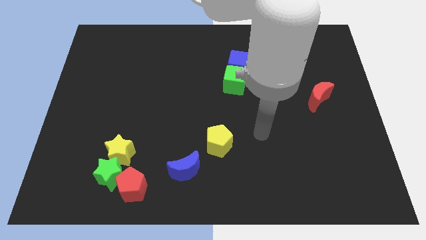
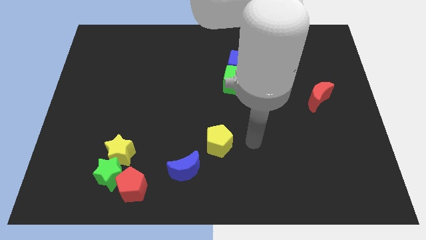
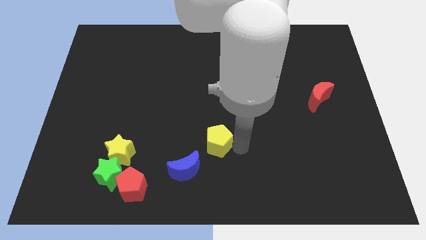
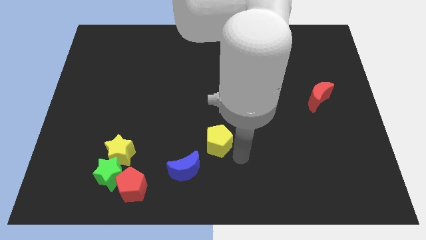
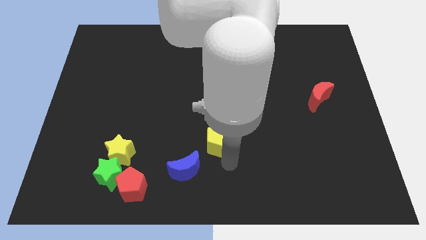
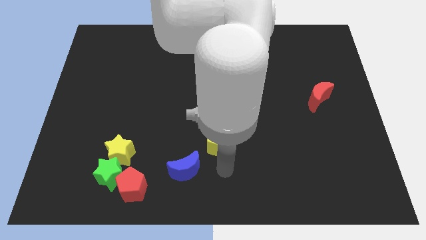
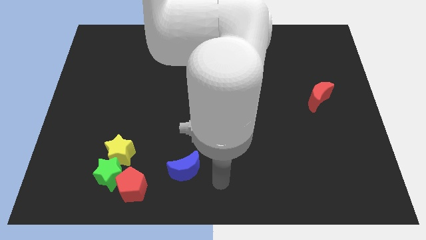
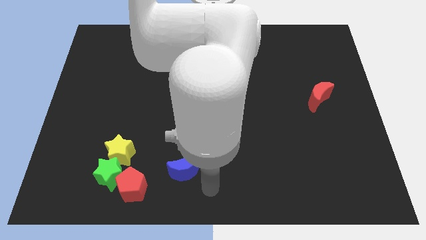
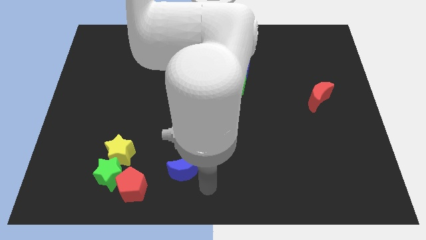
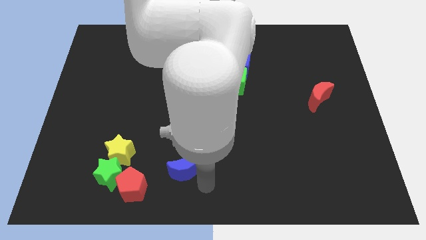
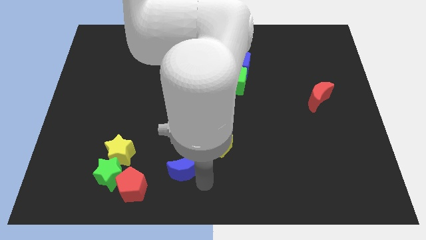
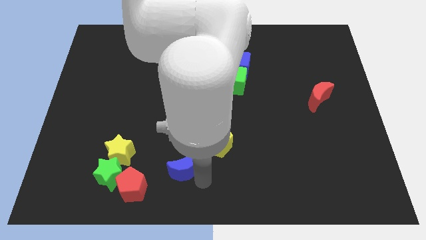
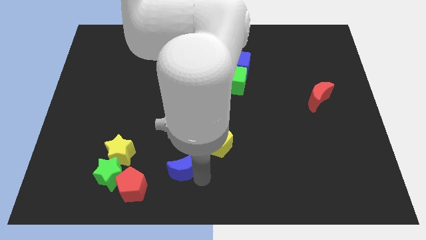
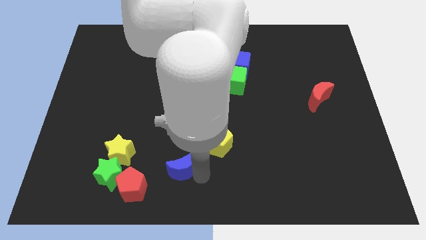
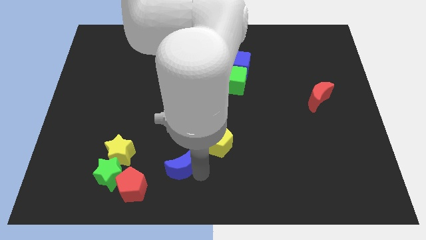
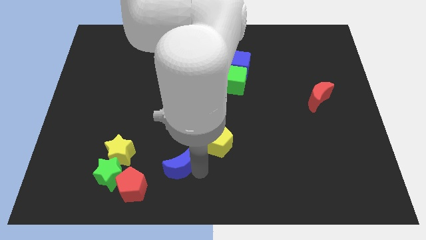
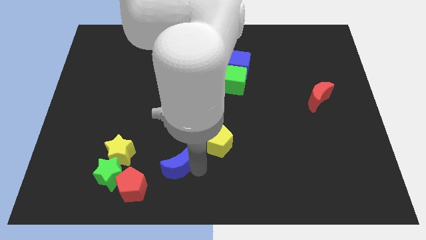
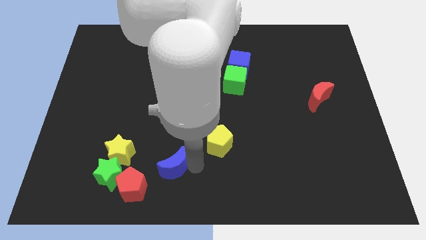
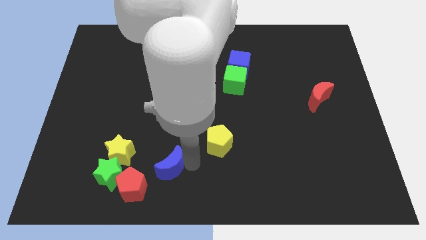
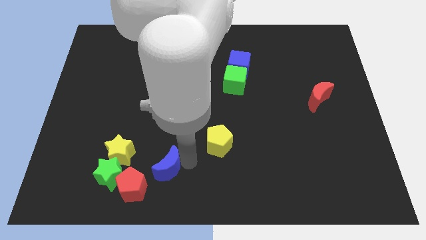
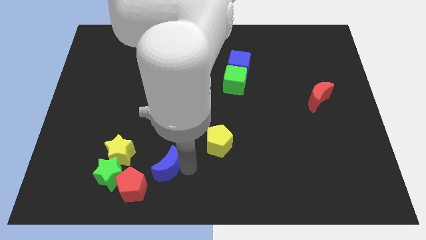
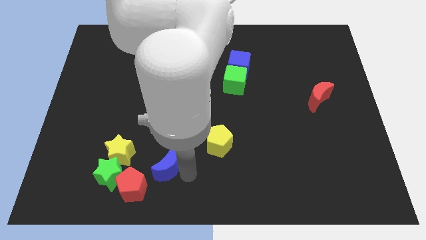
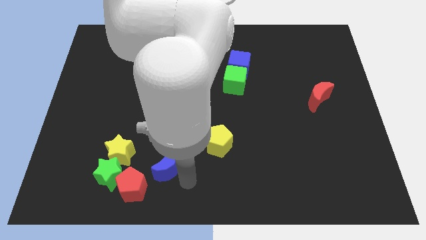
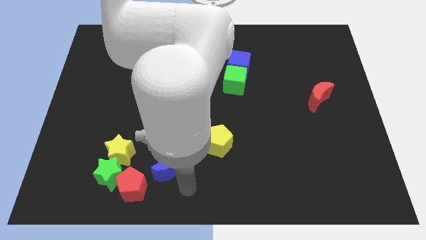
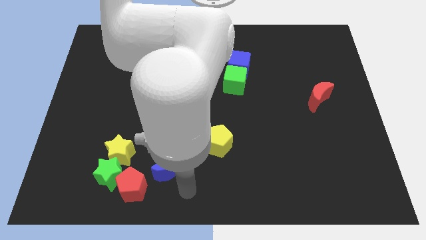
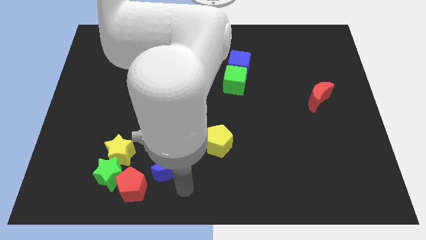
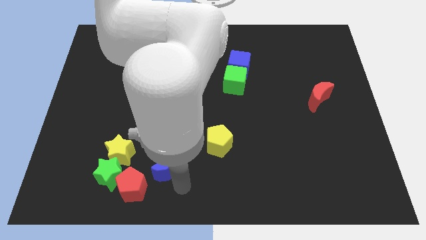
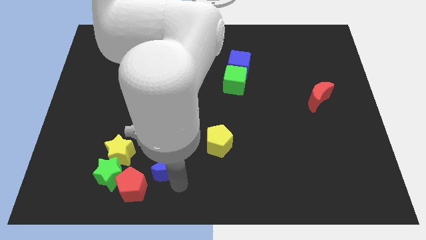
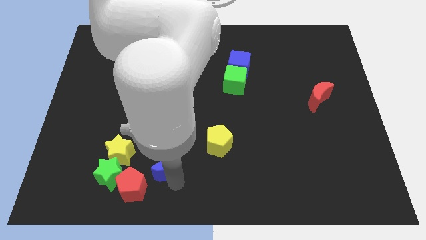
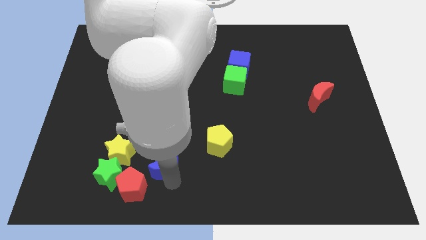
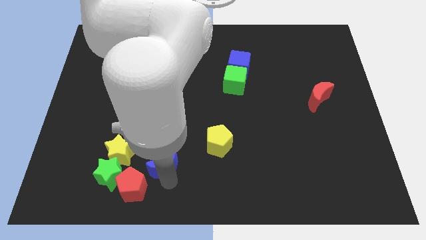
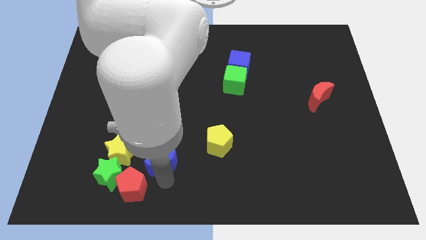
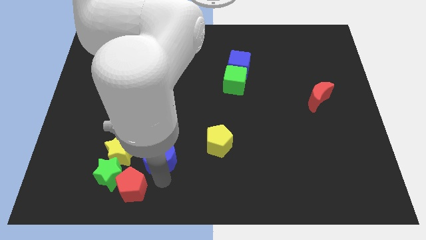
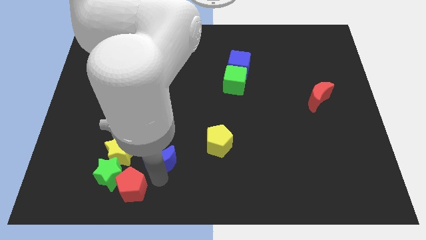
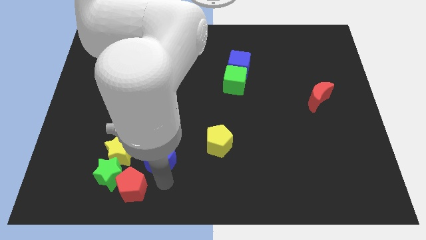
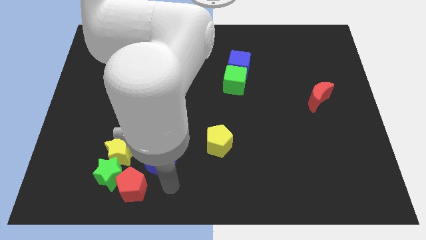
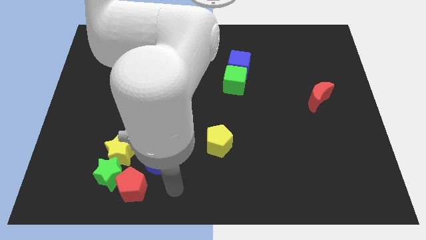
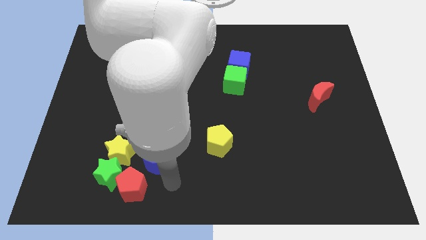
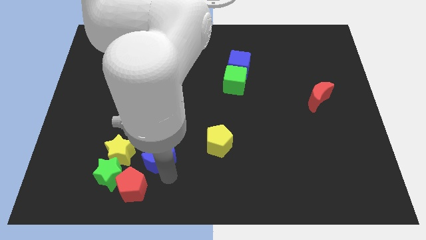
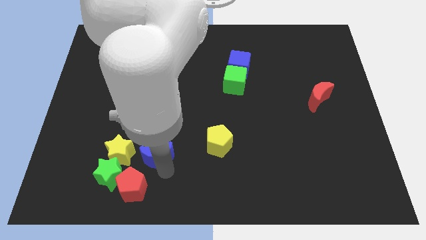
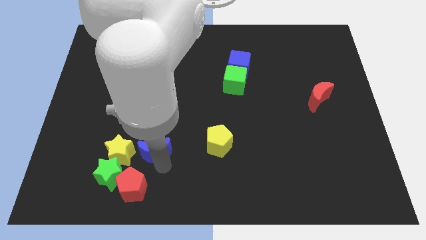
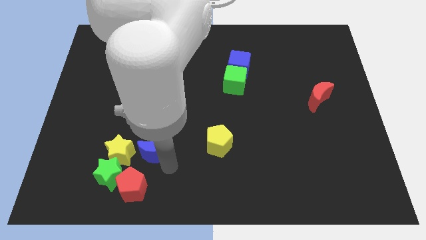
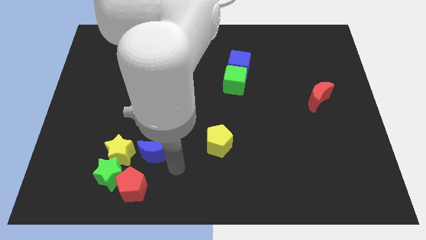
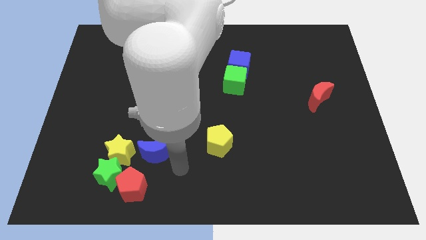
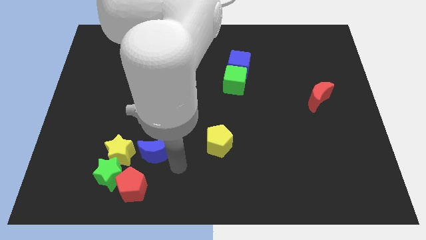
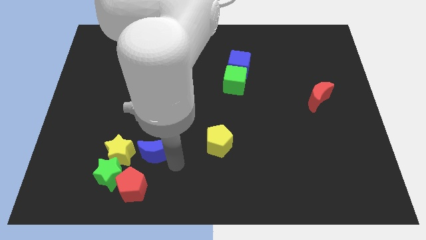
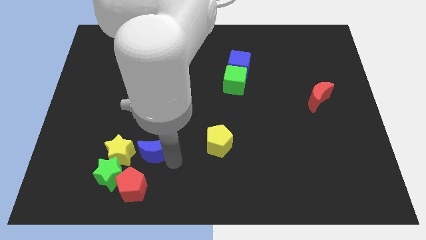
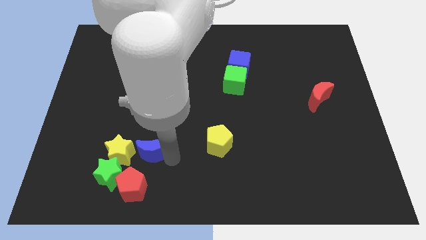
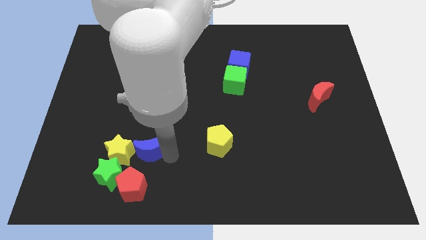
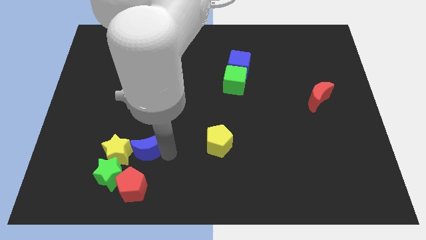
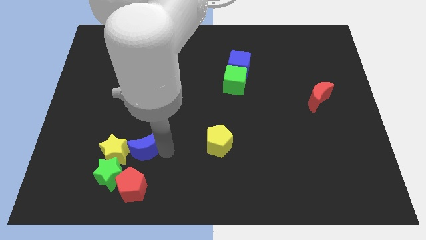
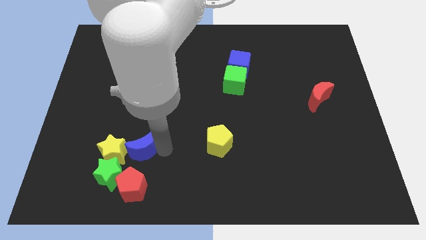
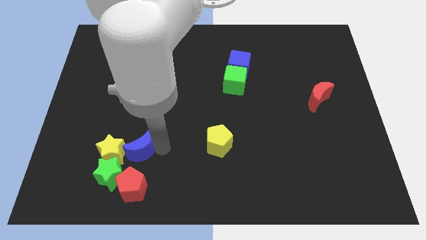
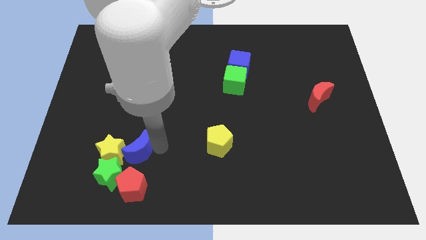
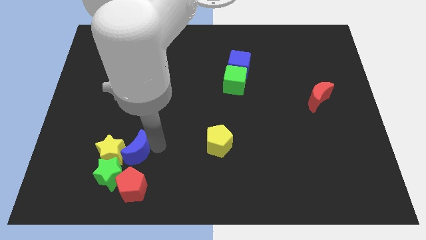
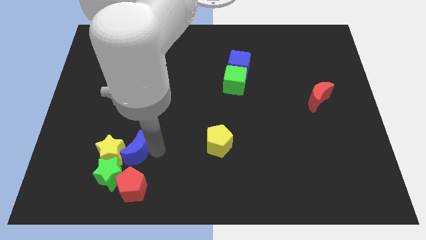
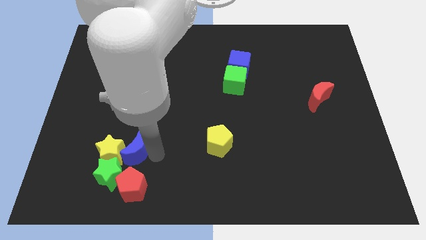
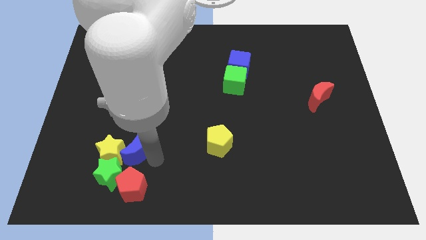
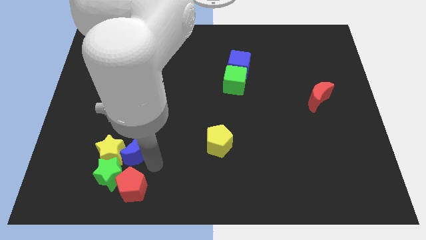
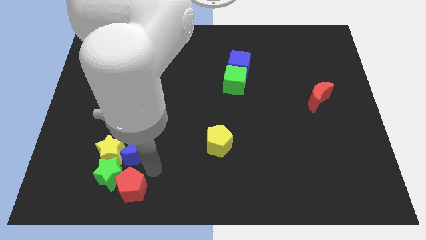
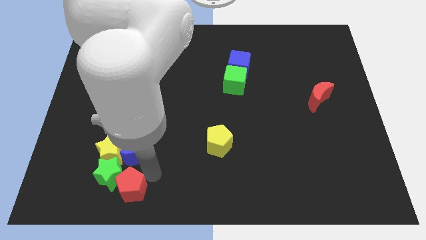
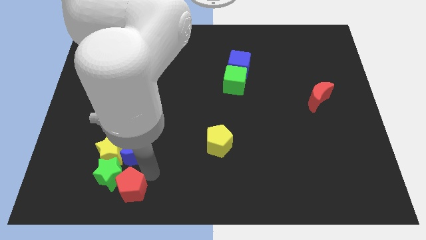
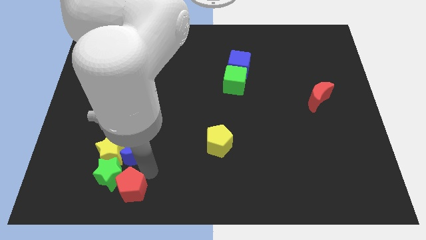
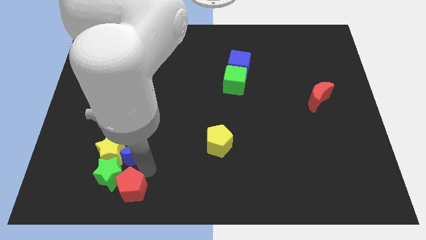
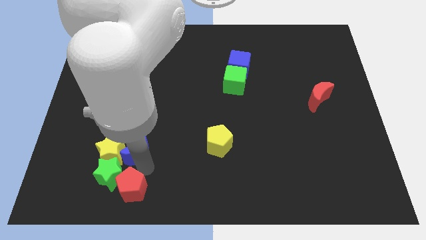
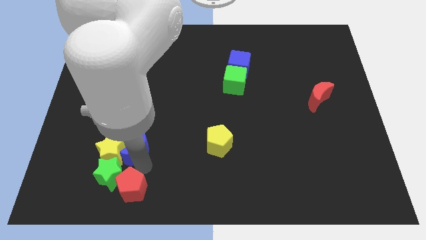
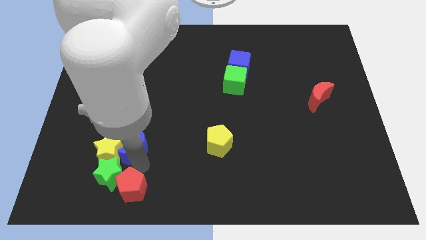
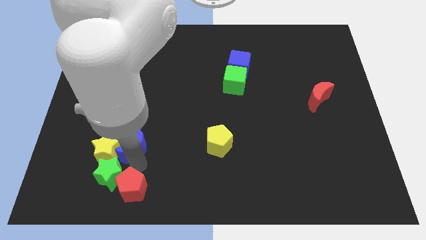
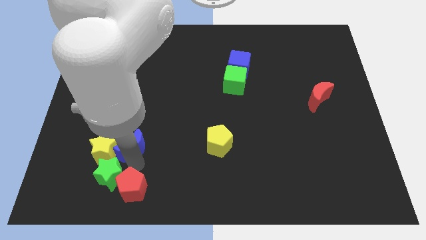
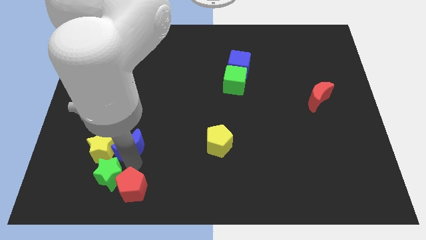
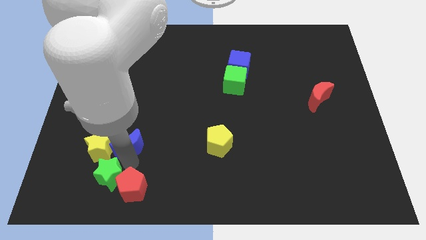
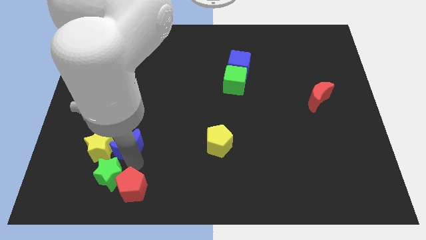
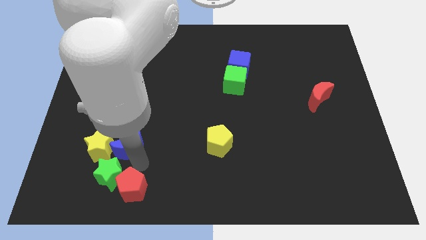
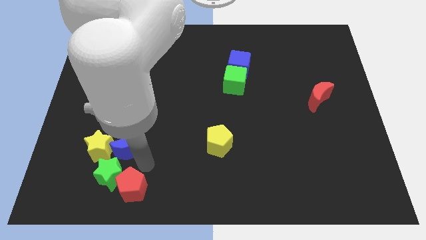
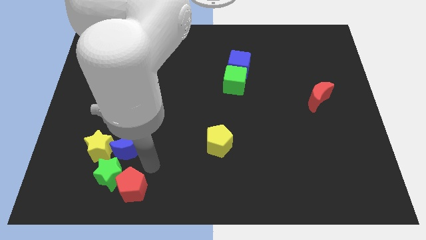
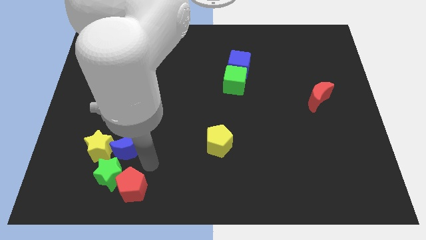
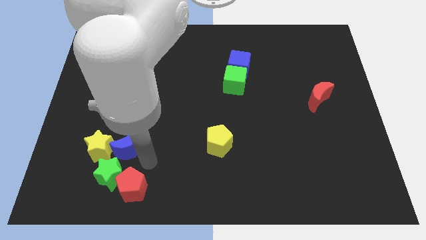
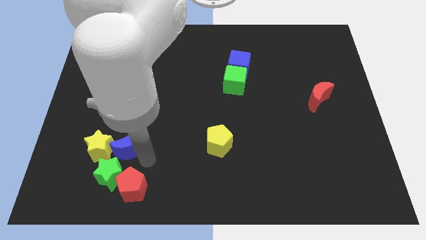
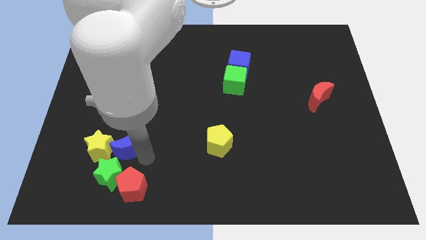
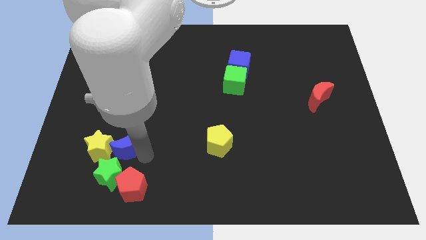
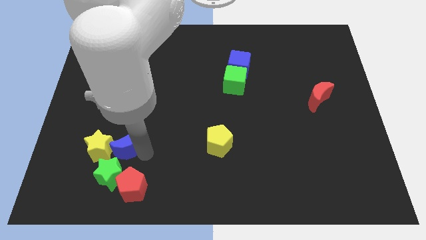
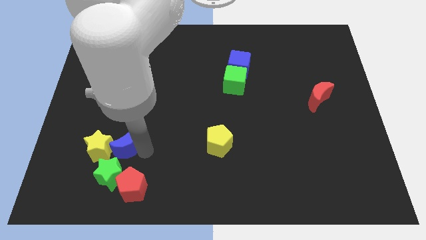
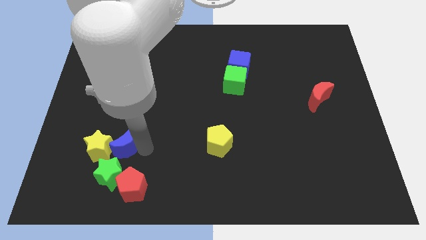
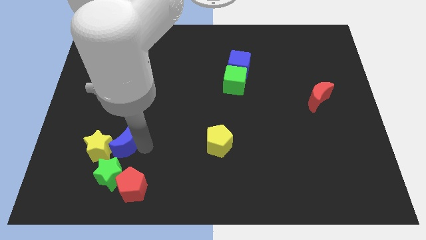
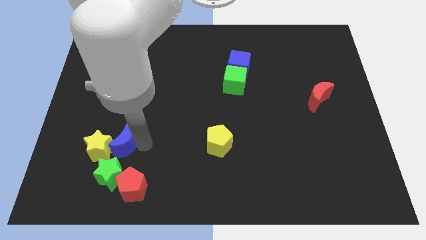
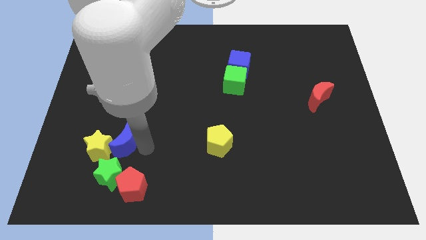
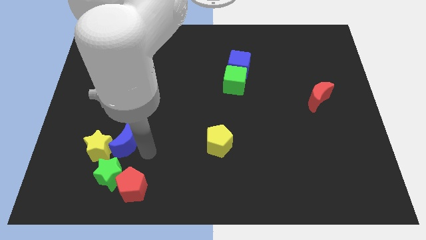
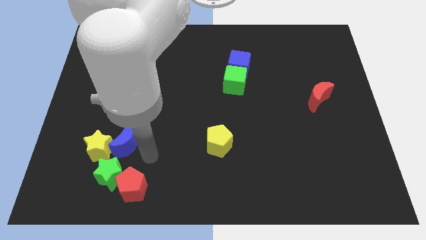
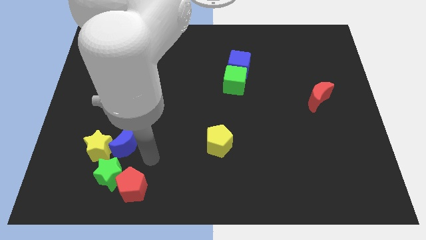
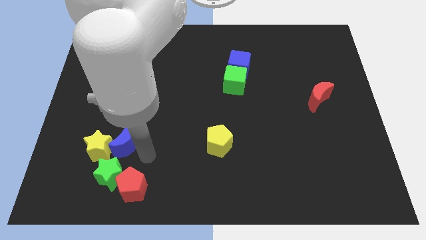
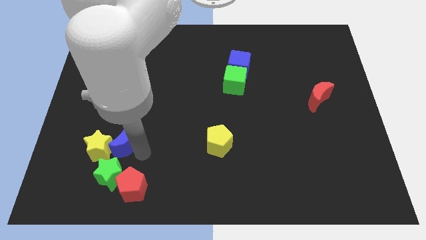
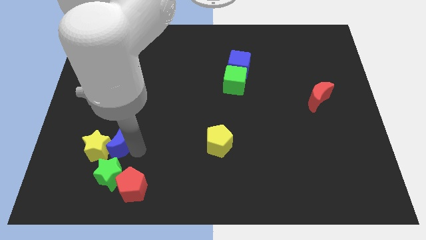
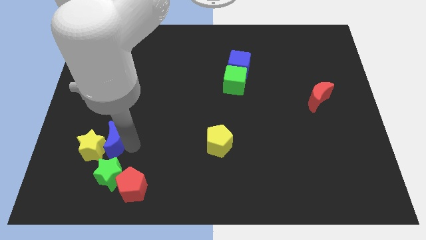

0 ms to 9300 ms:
put the blue moon to the top left of the red pentagon
